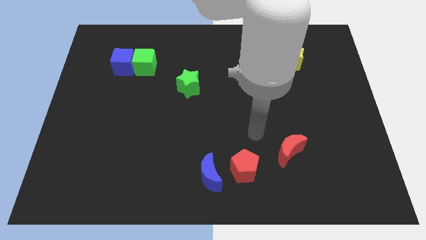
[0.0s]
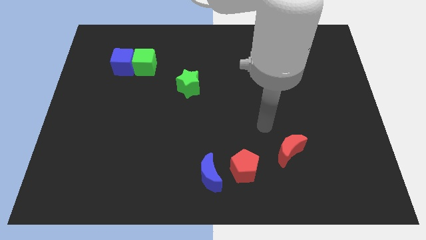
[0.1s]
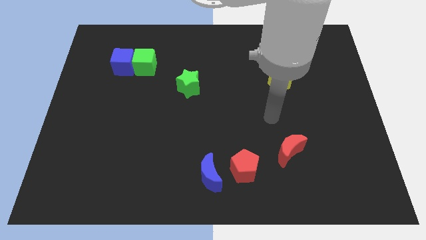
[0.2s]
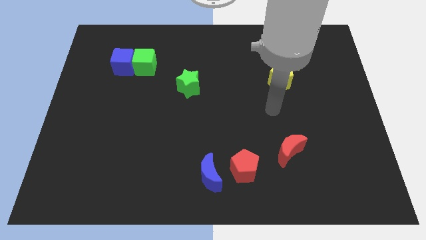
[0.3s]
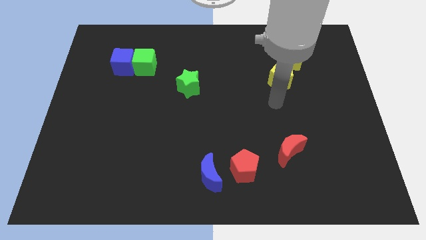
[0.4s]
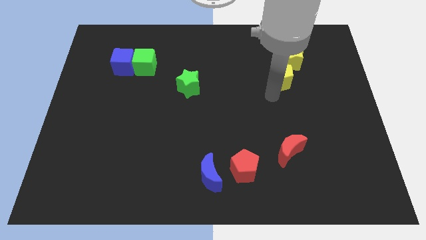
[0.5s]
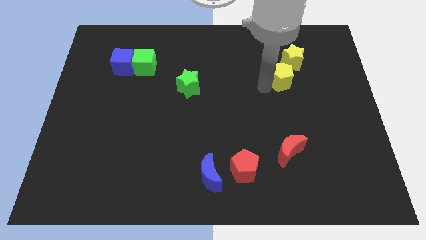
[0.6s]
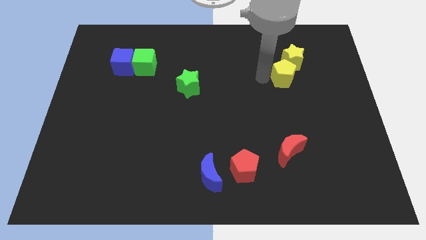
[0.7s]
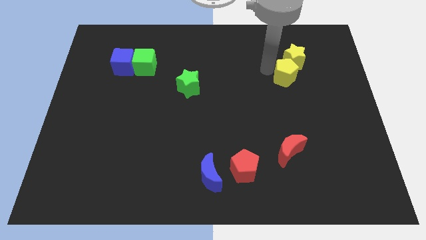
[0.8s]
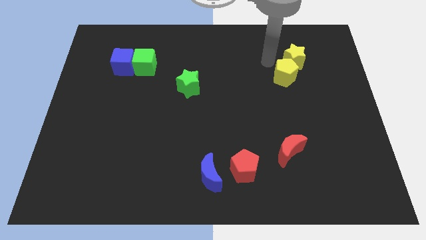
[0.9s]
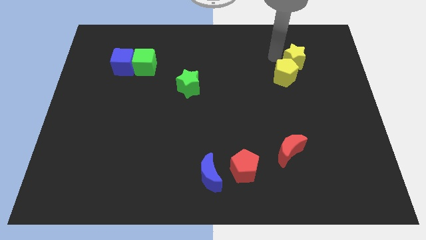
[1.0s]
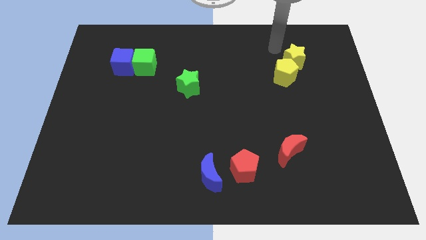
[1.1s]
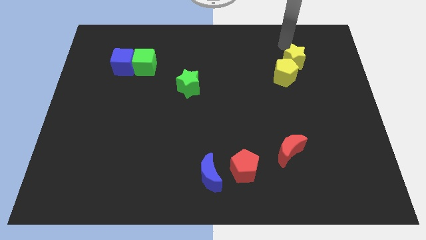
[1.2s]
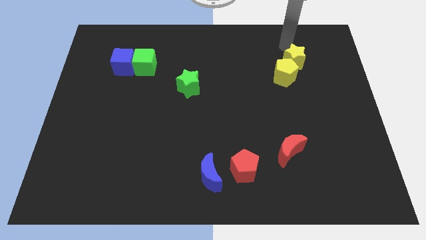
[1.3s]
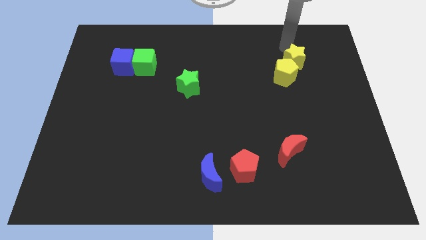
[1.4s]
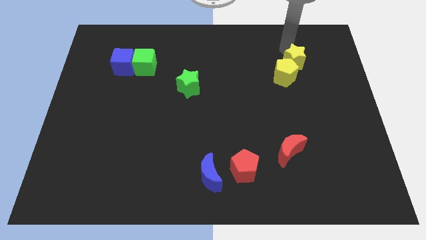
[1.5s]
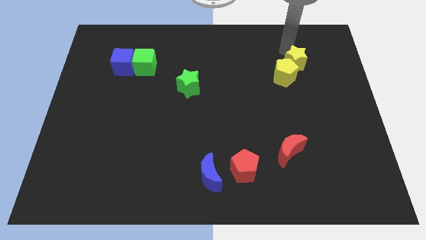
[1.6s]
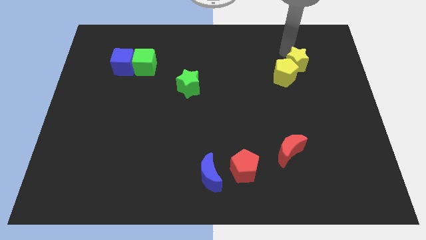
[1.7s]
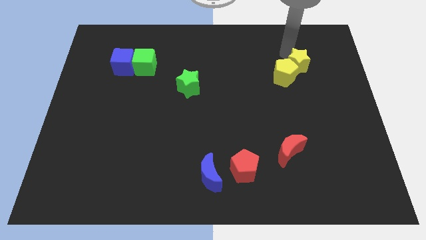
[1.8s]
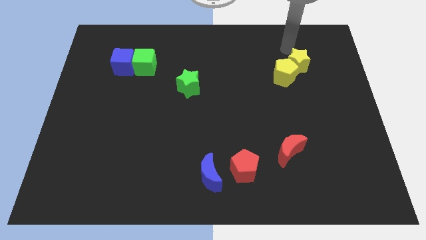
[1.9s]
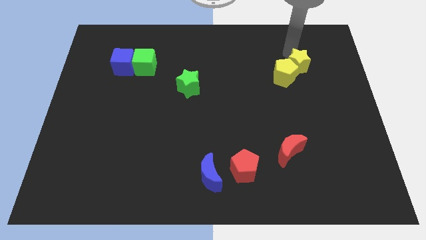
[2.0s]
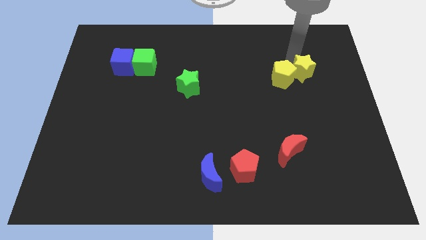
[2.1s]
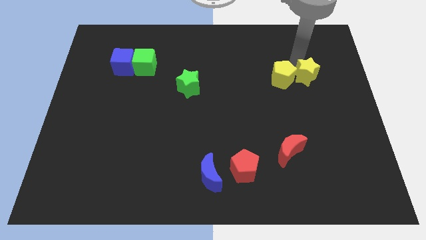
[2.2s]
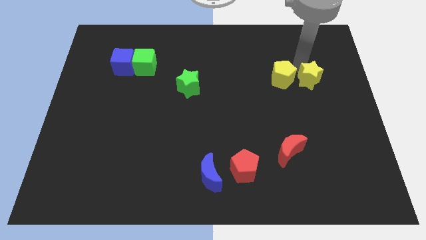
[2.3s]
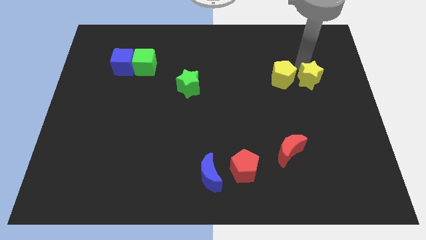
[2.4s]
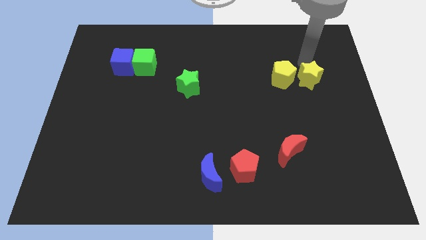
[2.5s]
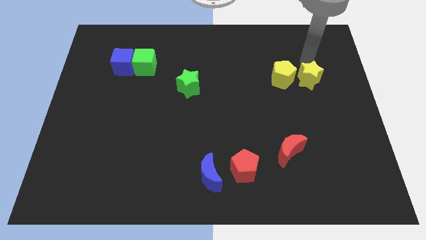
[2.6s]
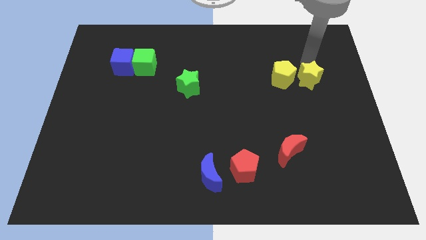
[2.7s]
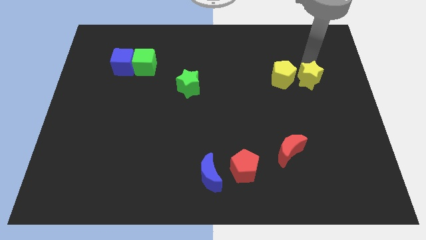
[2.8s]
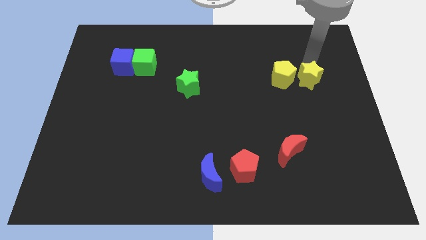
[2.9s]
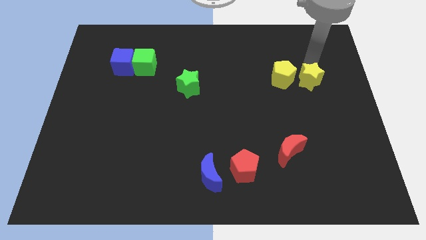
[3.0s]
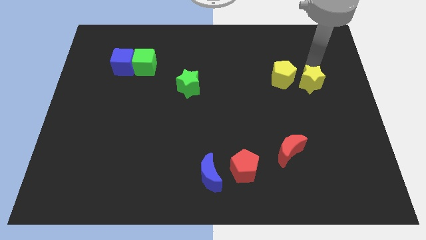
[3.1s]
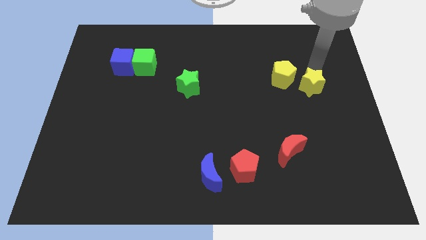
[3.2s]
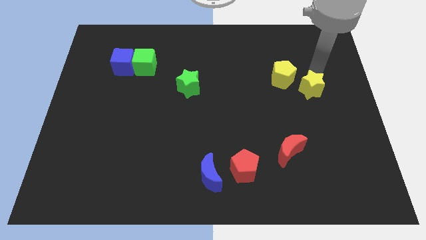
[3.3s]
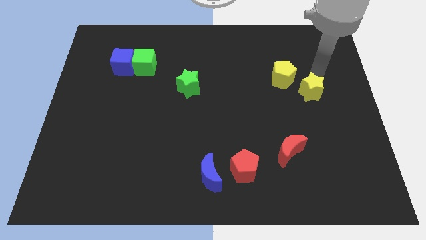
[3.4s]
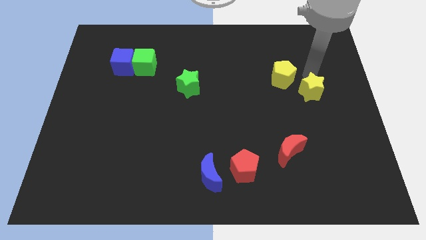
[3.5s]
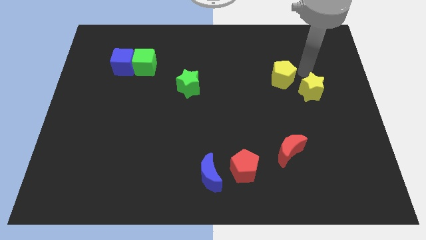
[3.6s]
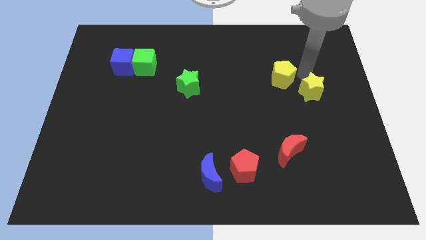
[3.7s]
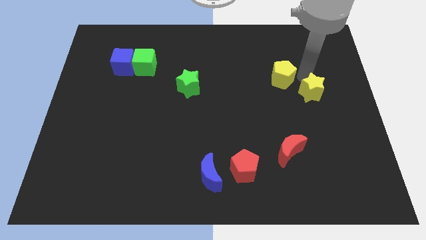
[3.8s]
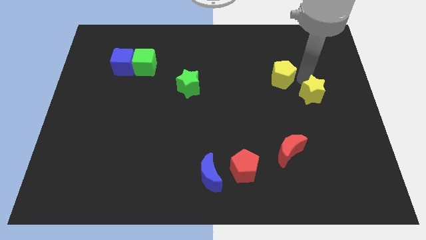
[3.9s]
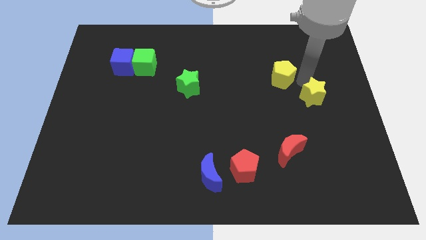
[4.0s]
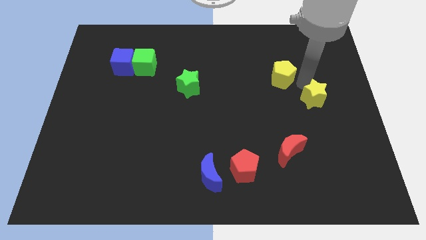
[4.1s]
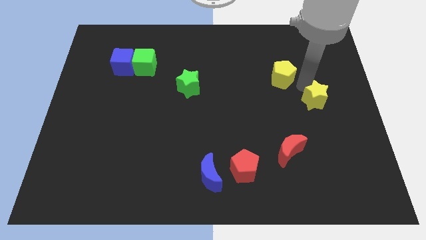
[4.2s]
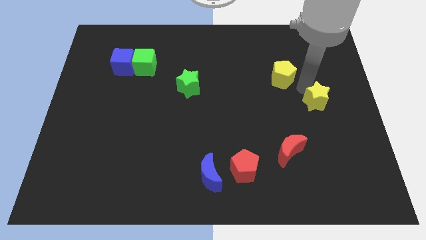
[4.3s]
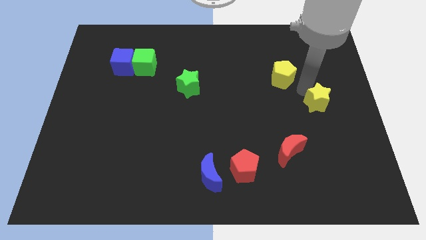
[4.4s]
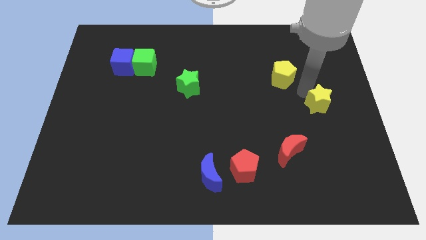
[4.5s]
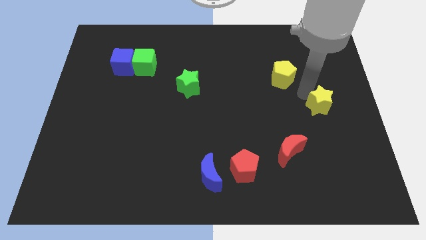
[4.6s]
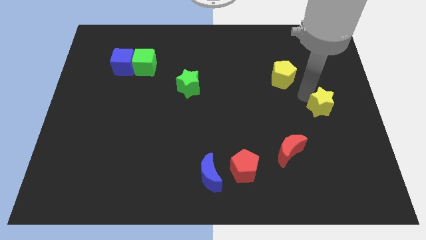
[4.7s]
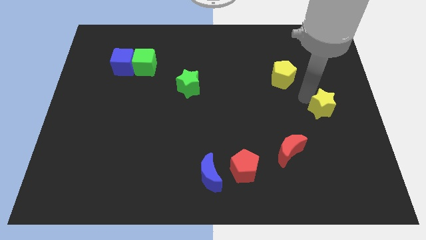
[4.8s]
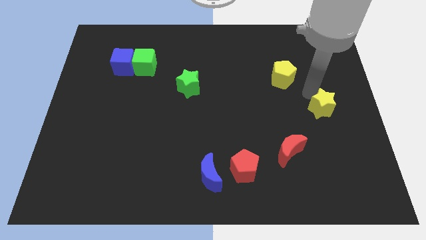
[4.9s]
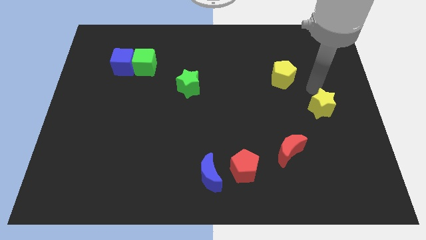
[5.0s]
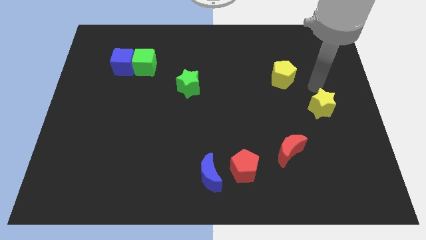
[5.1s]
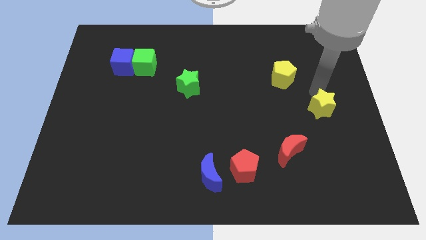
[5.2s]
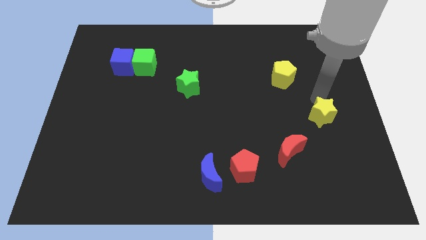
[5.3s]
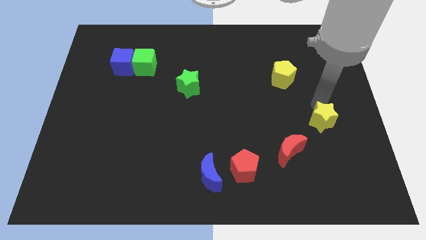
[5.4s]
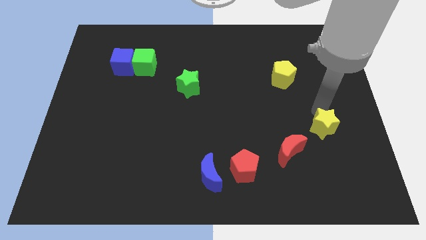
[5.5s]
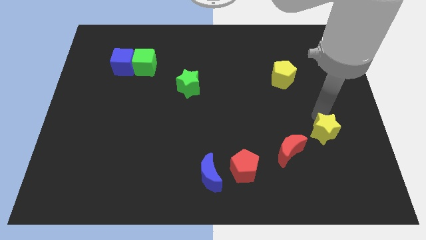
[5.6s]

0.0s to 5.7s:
put the yellow star to the right side of the red moon

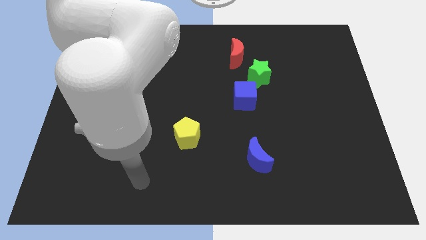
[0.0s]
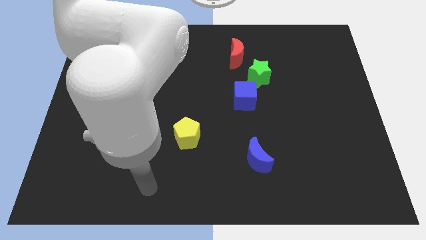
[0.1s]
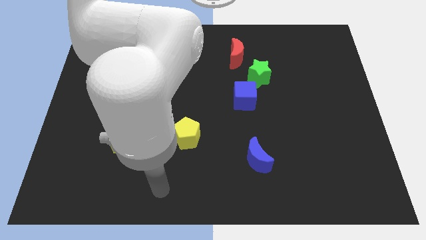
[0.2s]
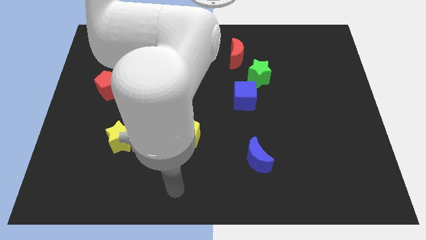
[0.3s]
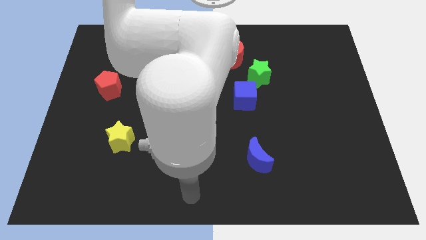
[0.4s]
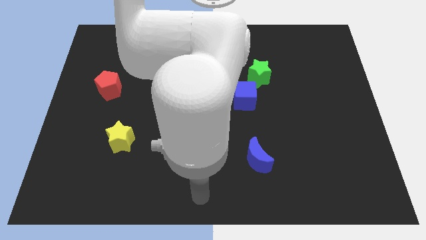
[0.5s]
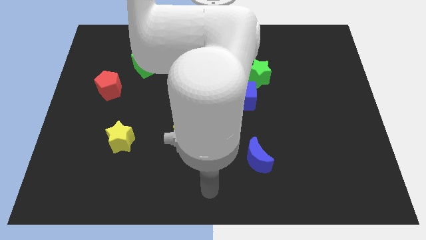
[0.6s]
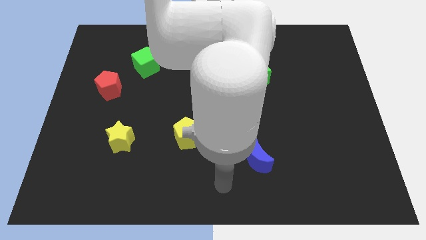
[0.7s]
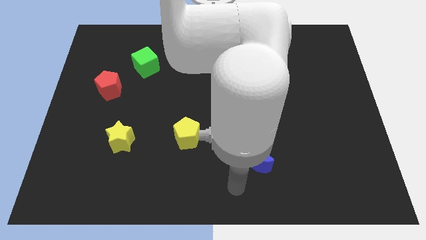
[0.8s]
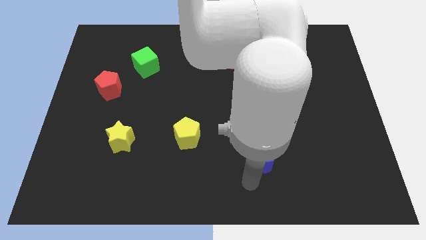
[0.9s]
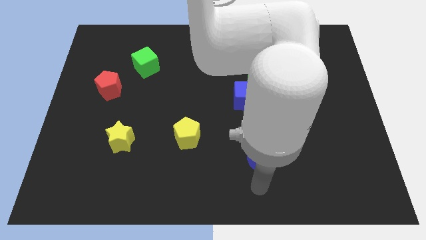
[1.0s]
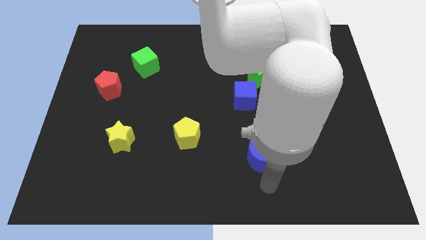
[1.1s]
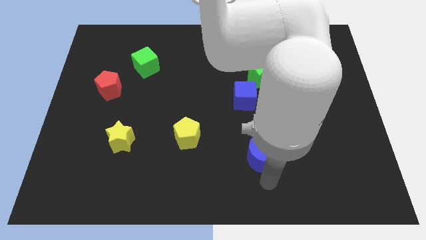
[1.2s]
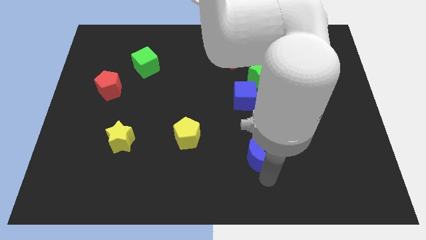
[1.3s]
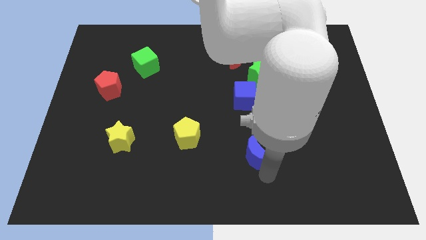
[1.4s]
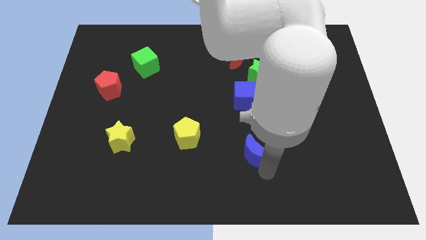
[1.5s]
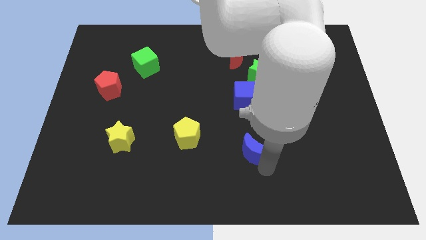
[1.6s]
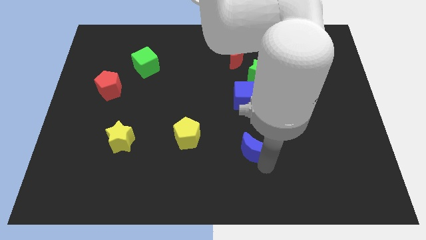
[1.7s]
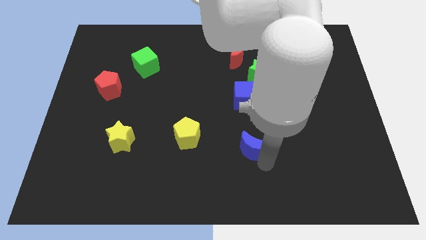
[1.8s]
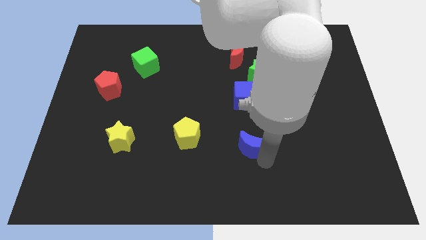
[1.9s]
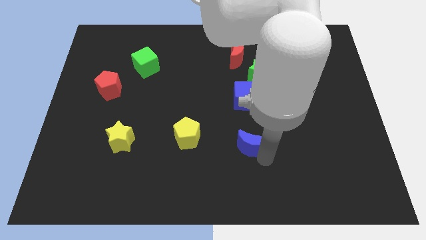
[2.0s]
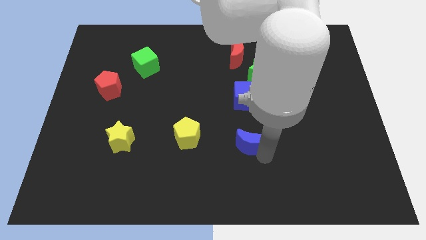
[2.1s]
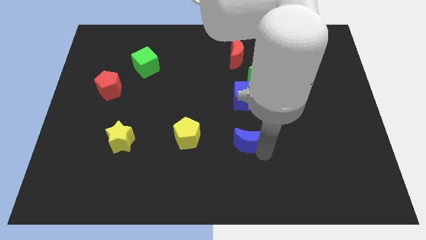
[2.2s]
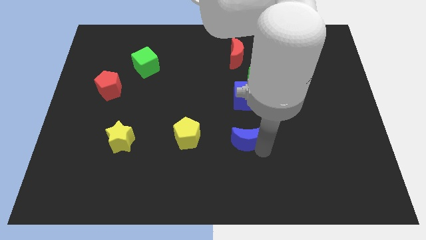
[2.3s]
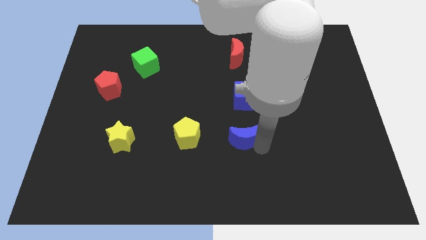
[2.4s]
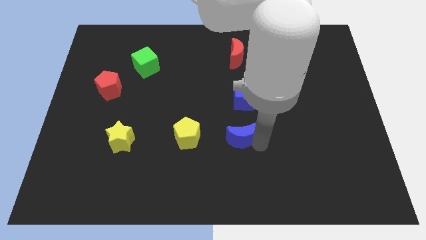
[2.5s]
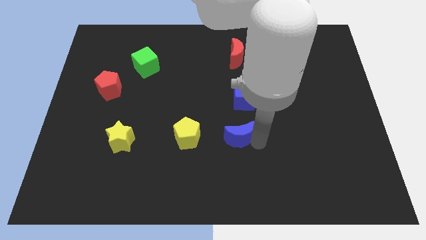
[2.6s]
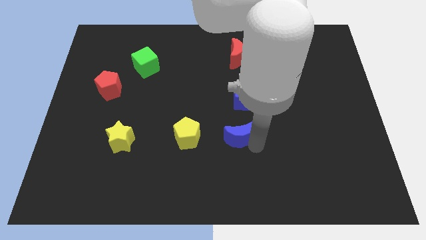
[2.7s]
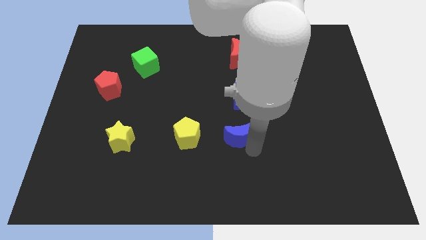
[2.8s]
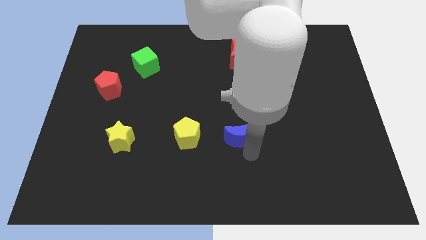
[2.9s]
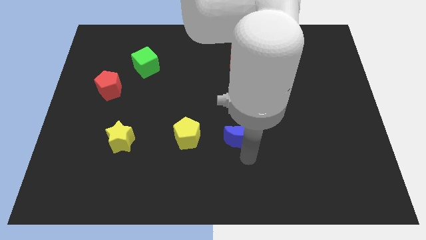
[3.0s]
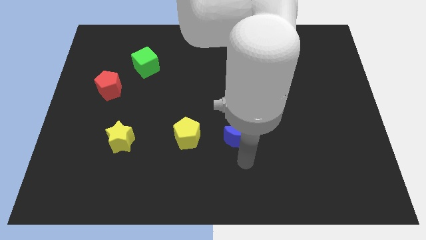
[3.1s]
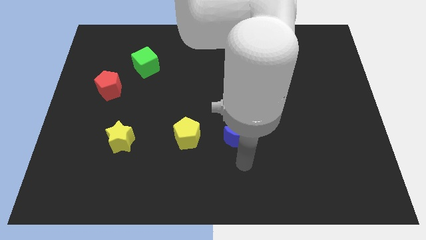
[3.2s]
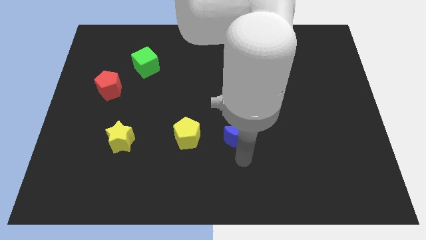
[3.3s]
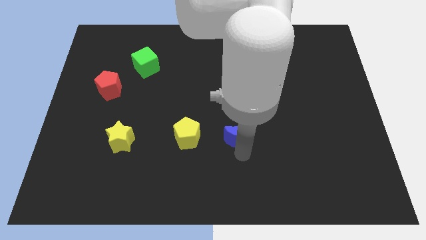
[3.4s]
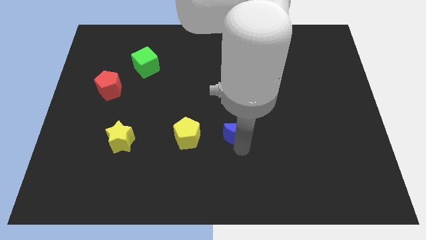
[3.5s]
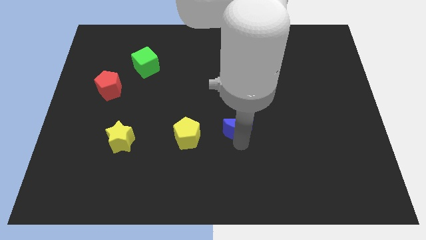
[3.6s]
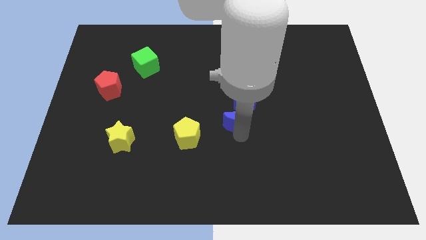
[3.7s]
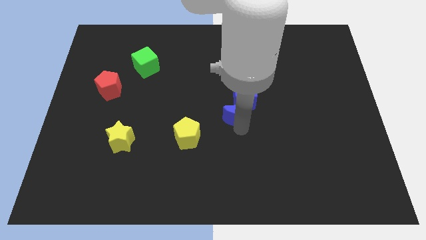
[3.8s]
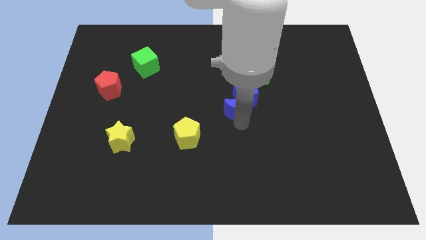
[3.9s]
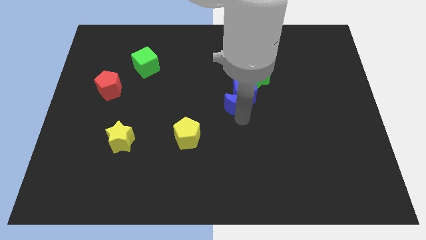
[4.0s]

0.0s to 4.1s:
put the blue moon diagonally down and to the left of the green star
